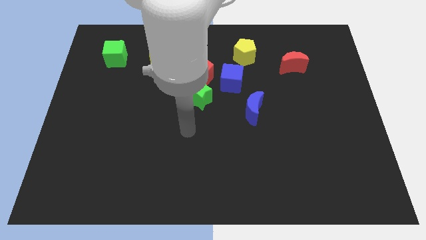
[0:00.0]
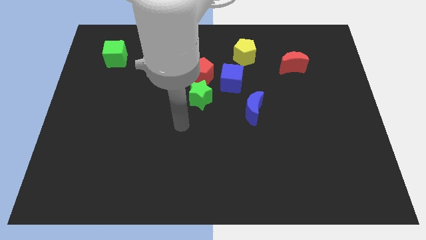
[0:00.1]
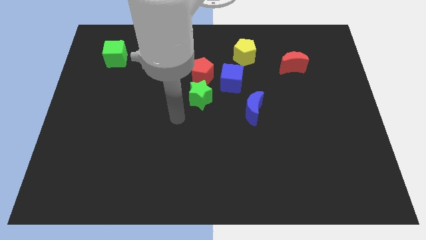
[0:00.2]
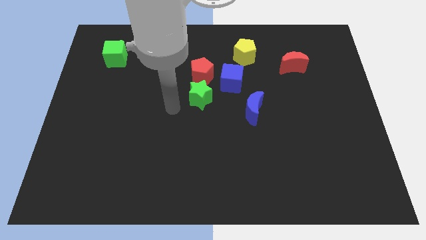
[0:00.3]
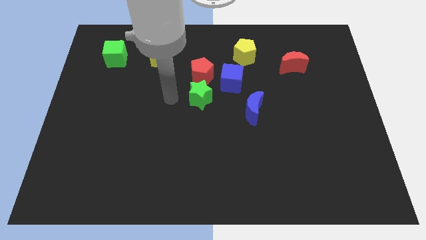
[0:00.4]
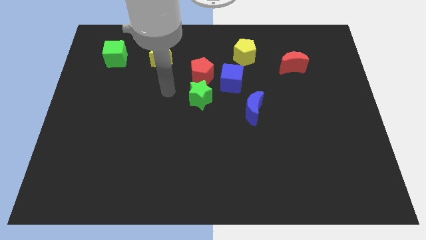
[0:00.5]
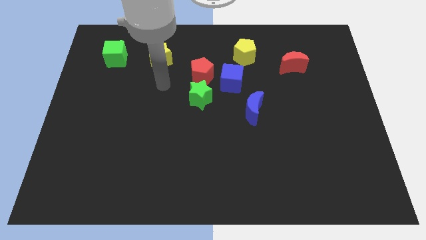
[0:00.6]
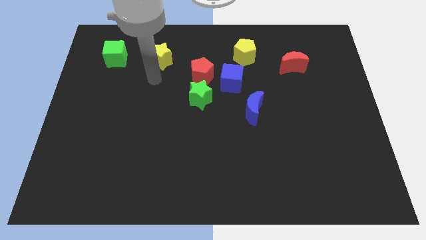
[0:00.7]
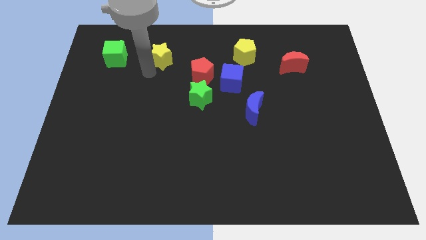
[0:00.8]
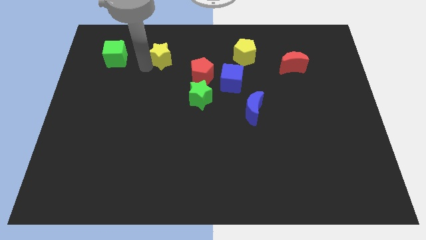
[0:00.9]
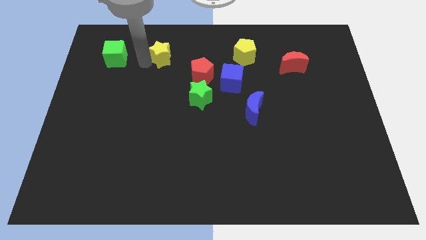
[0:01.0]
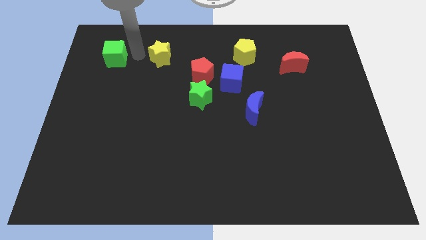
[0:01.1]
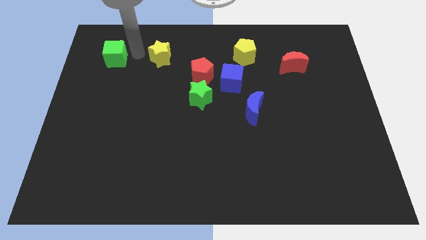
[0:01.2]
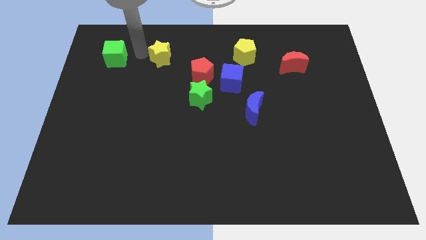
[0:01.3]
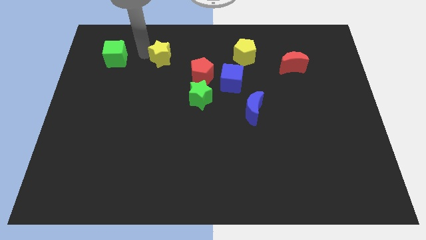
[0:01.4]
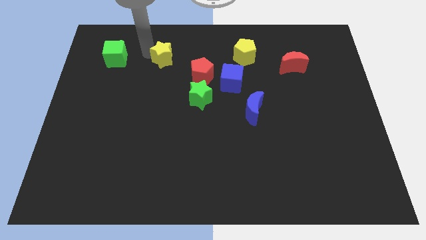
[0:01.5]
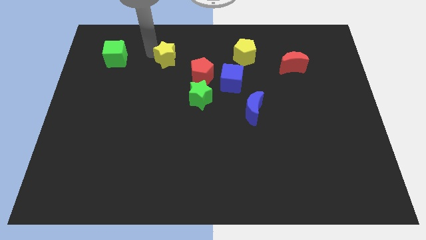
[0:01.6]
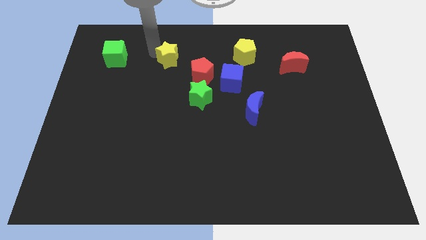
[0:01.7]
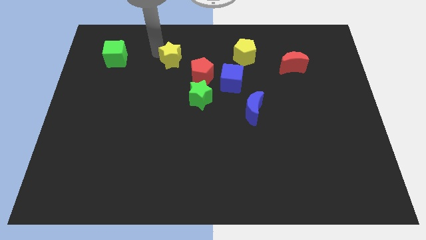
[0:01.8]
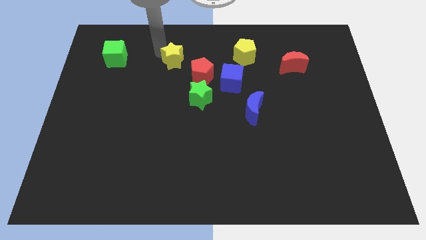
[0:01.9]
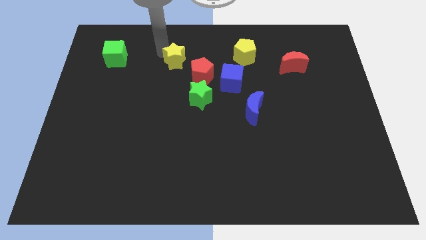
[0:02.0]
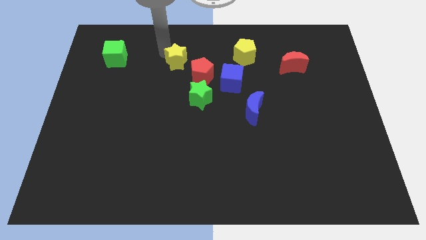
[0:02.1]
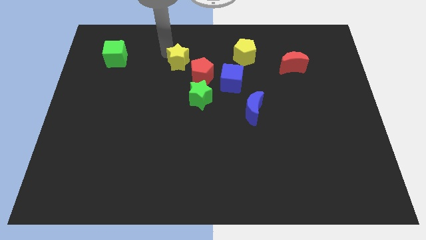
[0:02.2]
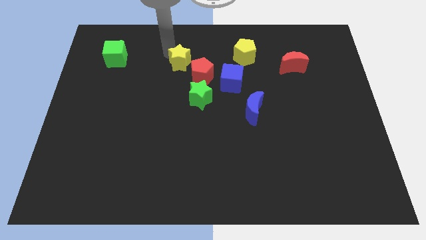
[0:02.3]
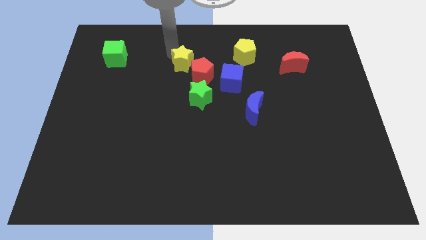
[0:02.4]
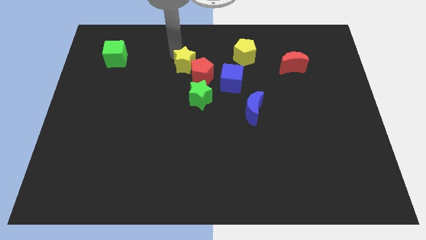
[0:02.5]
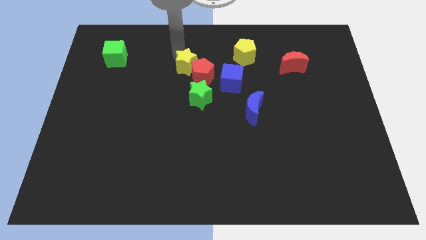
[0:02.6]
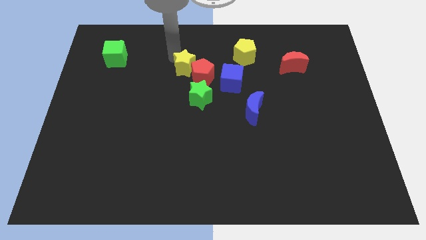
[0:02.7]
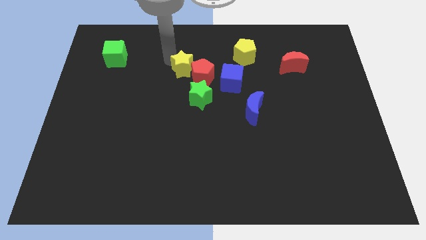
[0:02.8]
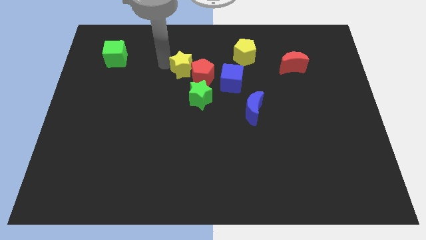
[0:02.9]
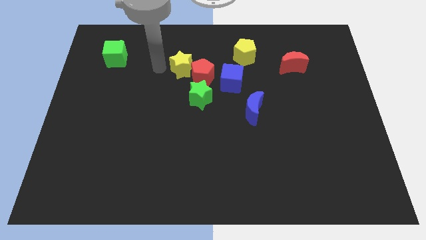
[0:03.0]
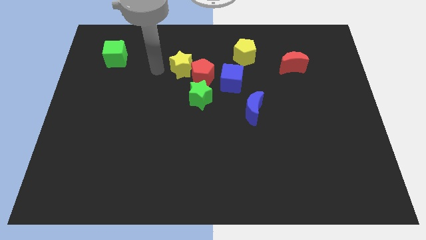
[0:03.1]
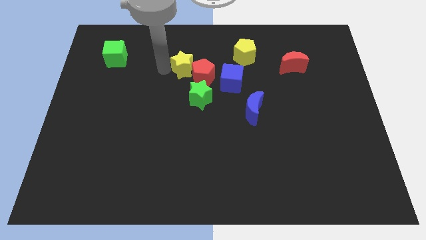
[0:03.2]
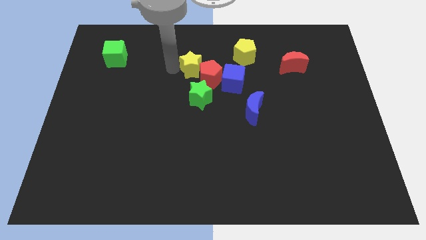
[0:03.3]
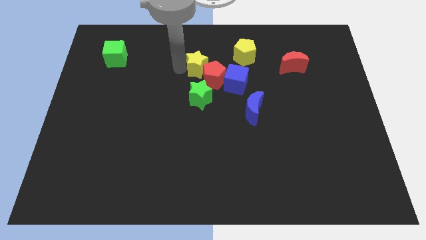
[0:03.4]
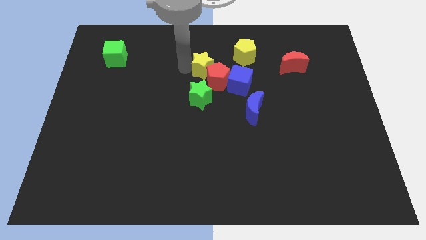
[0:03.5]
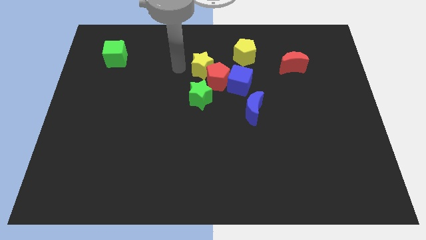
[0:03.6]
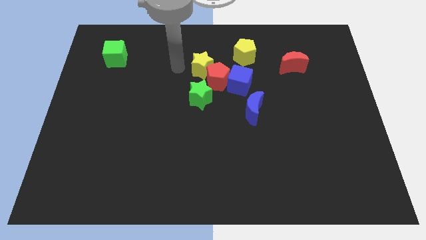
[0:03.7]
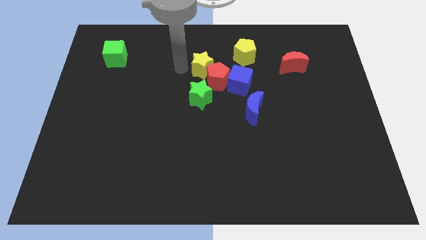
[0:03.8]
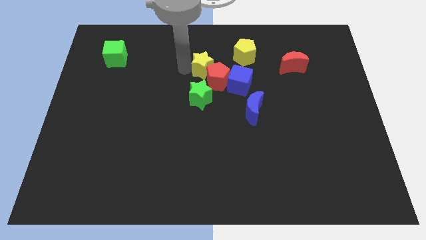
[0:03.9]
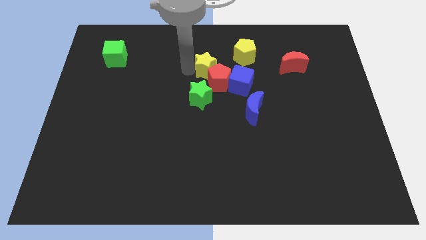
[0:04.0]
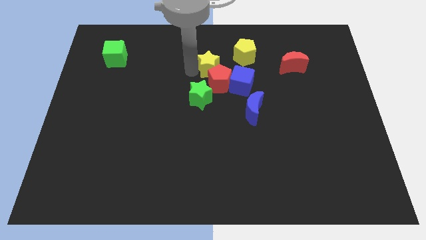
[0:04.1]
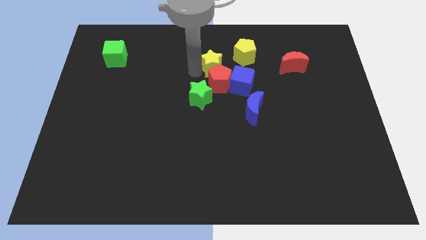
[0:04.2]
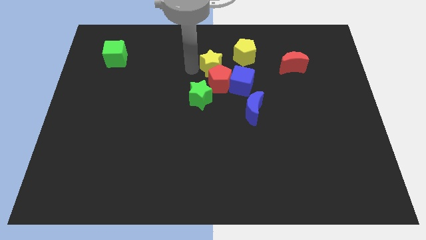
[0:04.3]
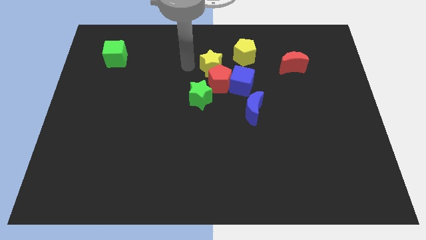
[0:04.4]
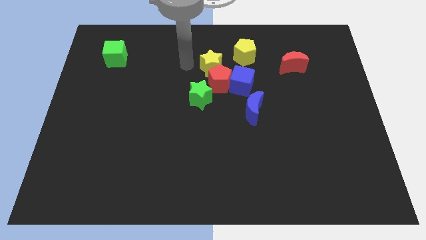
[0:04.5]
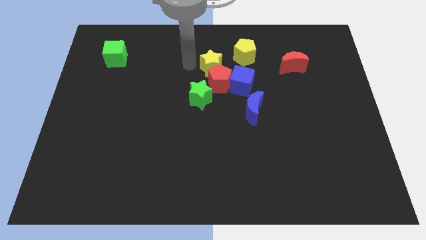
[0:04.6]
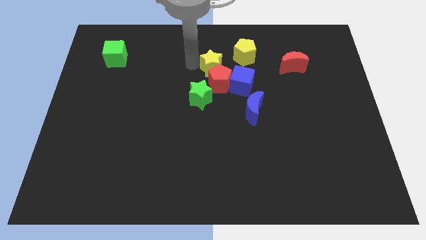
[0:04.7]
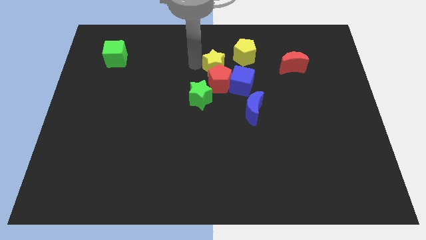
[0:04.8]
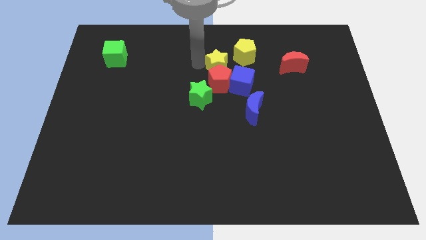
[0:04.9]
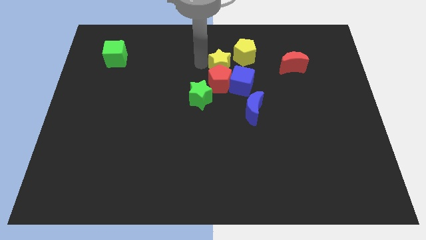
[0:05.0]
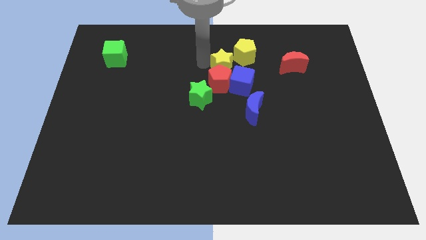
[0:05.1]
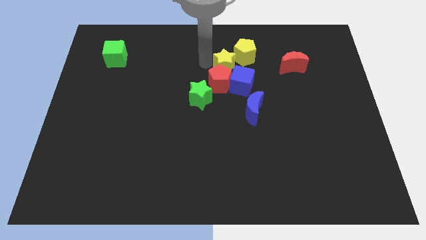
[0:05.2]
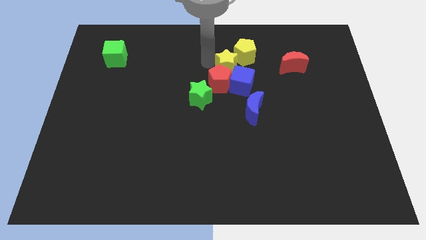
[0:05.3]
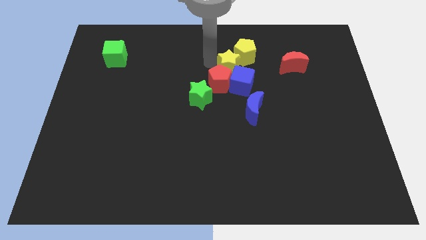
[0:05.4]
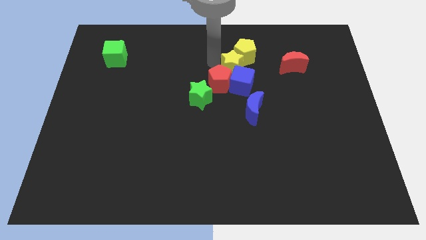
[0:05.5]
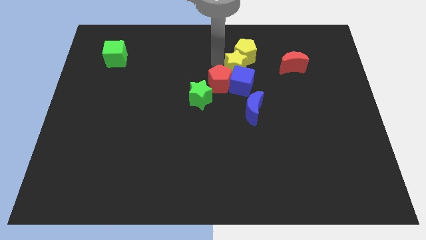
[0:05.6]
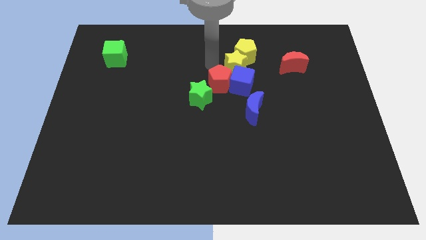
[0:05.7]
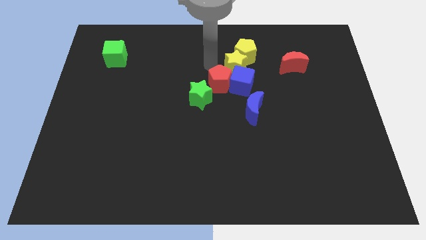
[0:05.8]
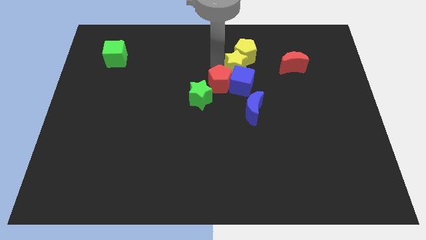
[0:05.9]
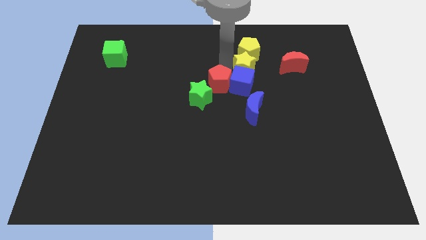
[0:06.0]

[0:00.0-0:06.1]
push the yellow star to the bottom right of the yellow pentagon

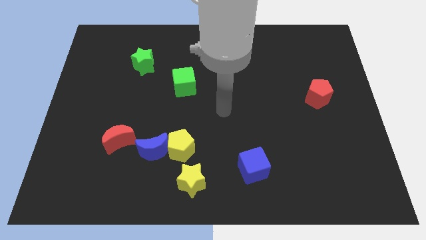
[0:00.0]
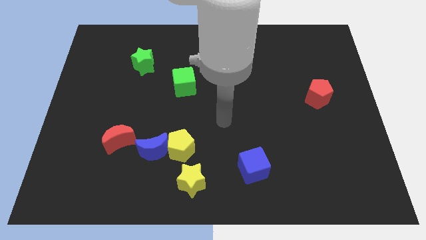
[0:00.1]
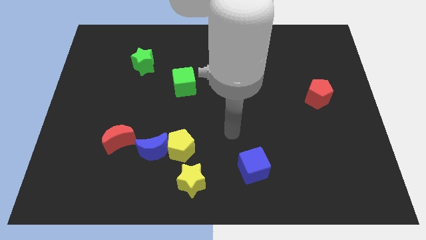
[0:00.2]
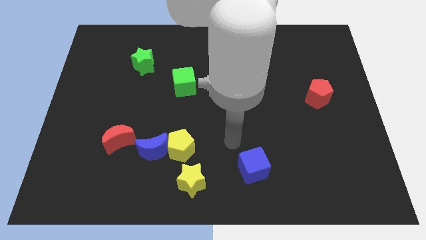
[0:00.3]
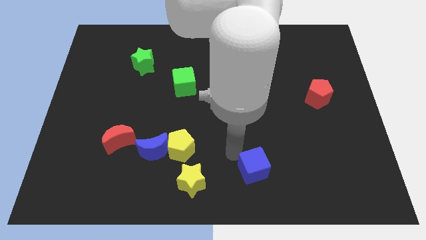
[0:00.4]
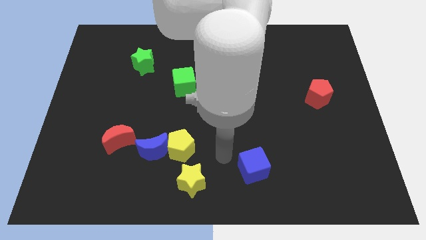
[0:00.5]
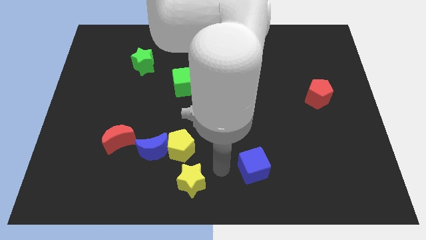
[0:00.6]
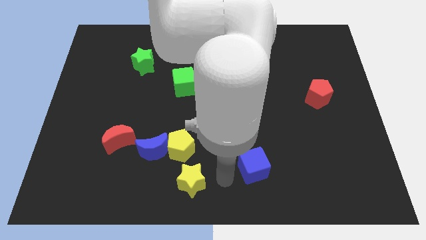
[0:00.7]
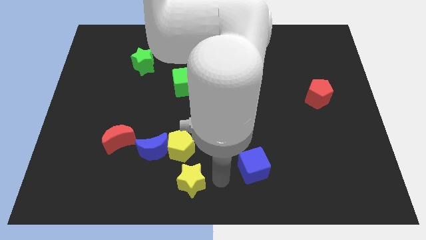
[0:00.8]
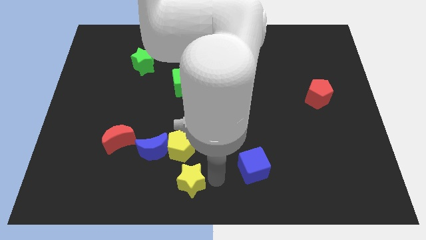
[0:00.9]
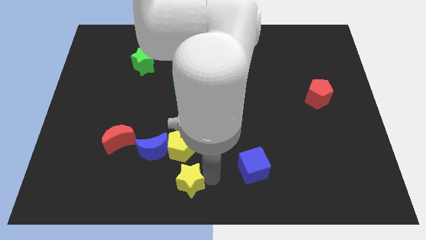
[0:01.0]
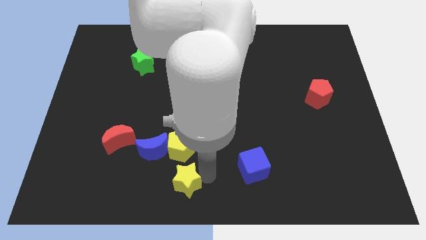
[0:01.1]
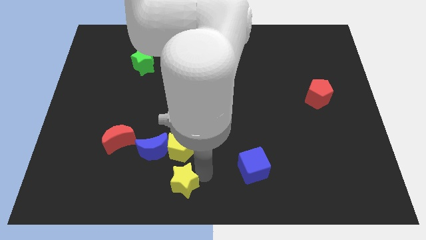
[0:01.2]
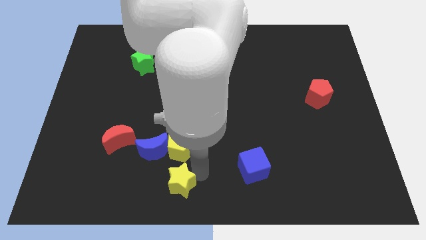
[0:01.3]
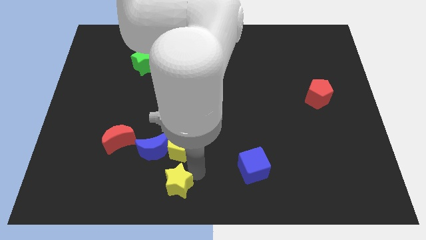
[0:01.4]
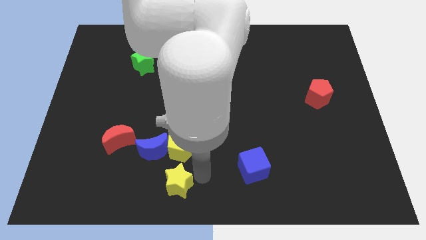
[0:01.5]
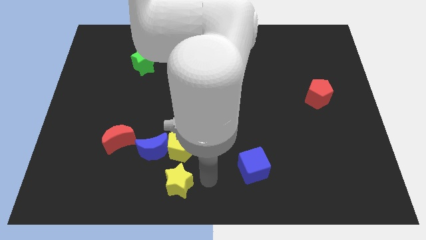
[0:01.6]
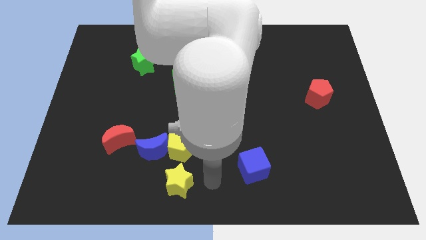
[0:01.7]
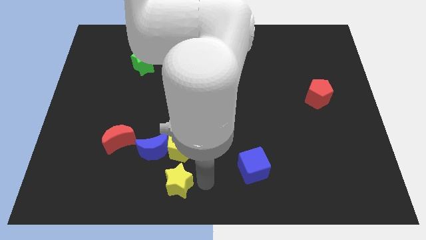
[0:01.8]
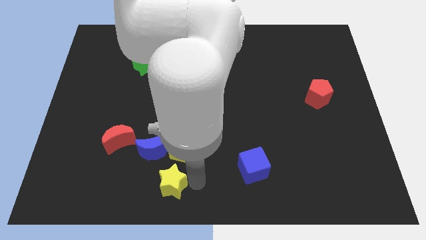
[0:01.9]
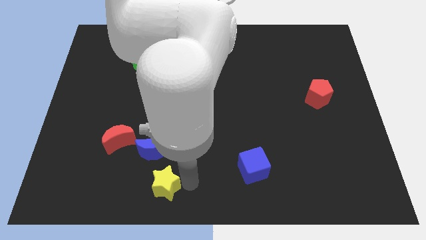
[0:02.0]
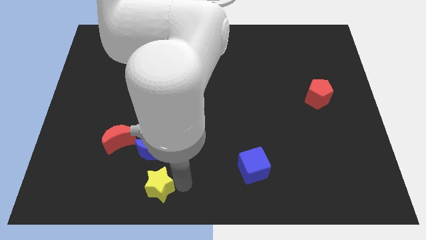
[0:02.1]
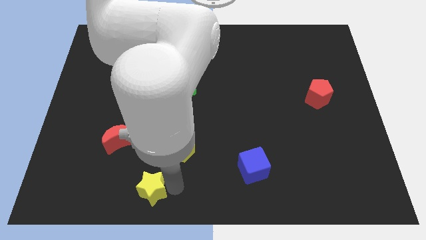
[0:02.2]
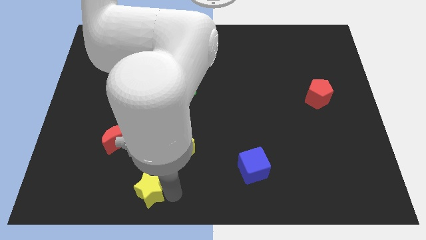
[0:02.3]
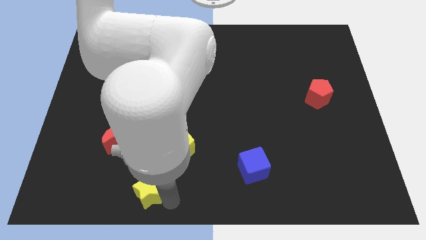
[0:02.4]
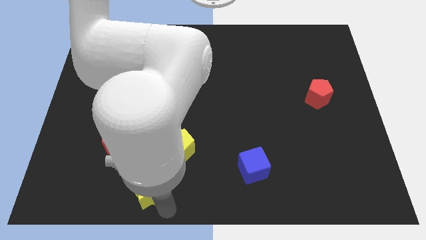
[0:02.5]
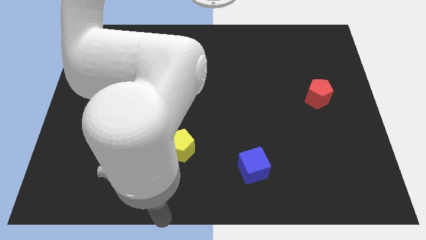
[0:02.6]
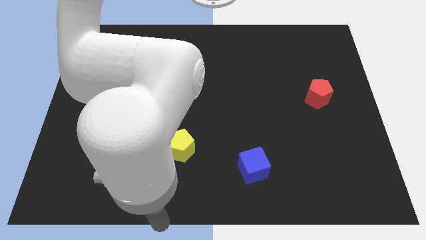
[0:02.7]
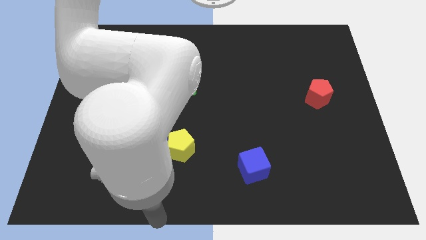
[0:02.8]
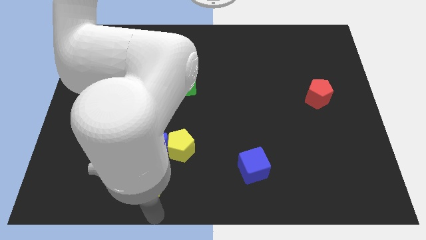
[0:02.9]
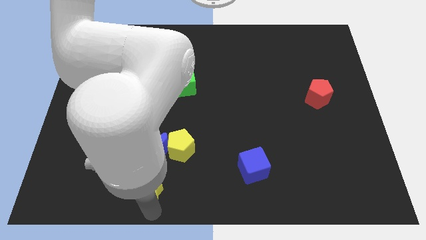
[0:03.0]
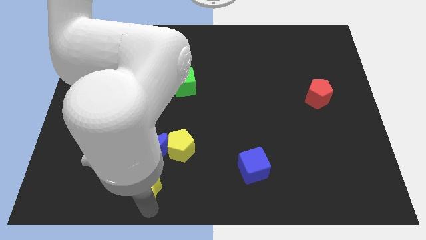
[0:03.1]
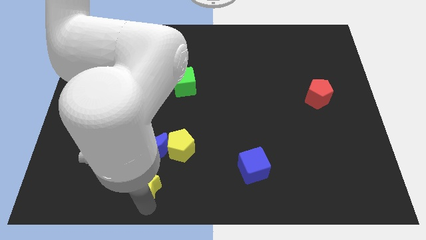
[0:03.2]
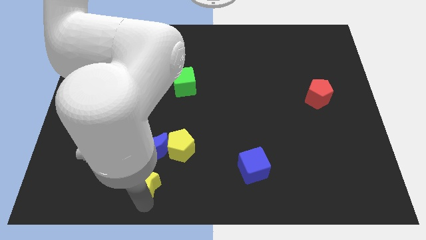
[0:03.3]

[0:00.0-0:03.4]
move the yellow star diagonally down and to the right of the red moon
